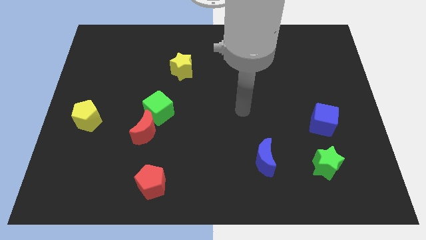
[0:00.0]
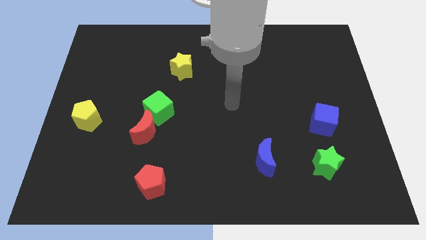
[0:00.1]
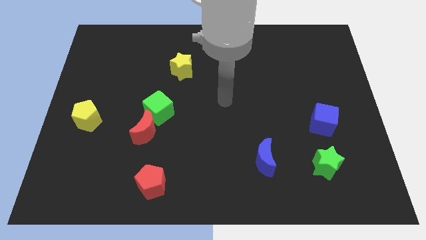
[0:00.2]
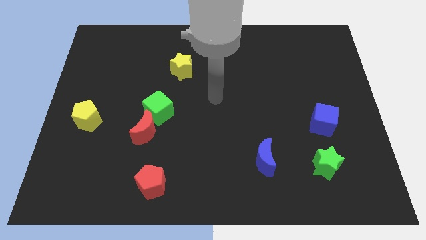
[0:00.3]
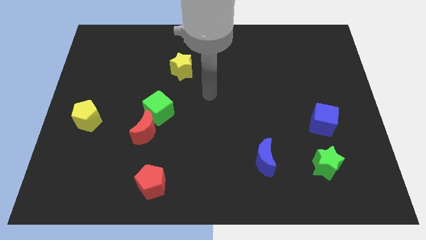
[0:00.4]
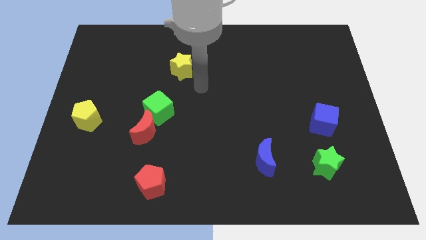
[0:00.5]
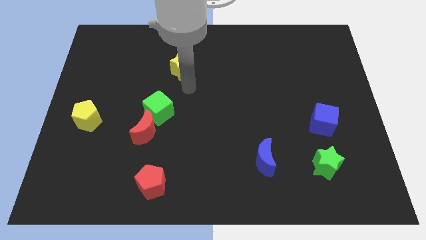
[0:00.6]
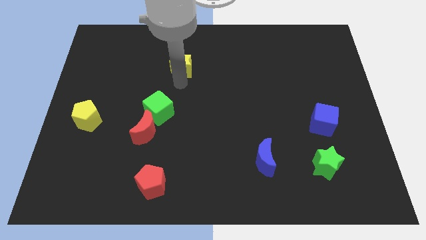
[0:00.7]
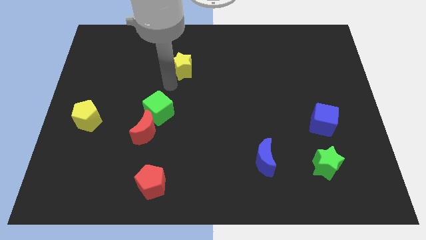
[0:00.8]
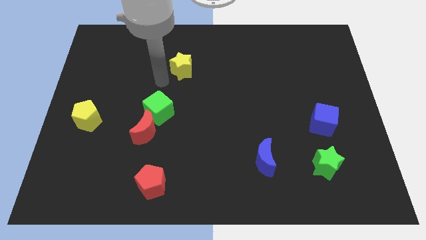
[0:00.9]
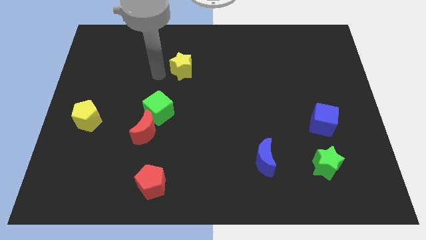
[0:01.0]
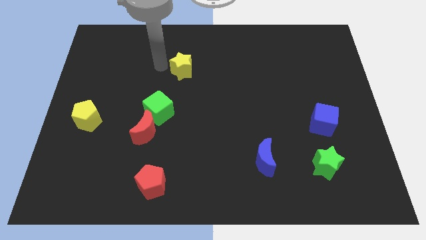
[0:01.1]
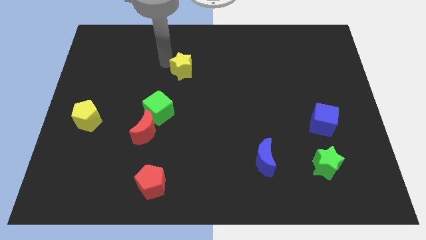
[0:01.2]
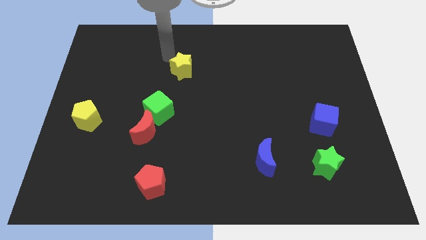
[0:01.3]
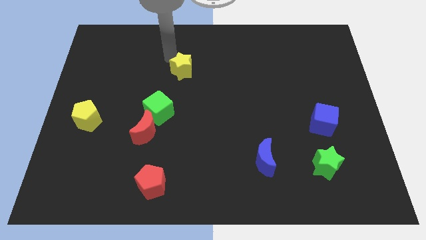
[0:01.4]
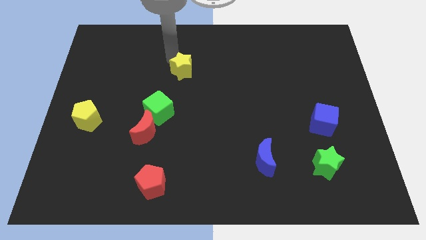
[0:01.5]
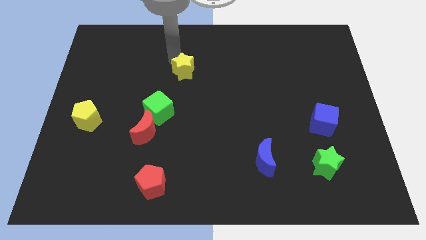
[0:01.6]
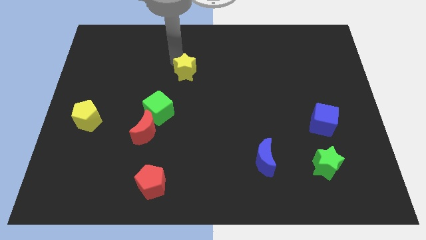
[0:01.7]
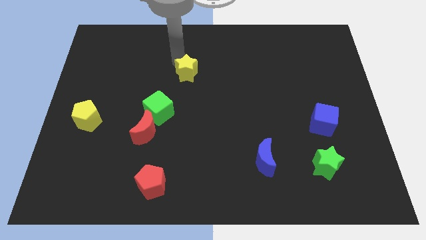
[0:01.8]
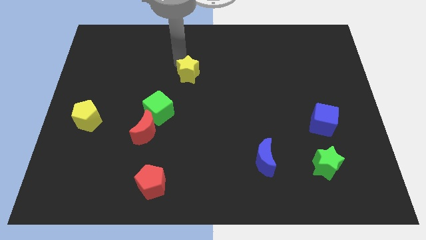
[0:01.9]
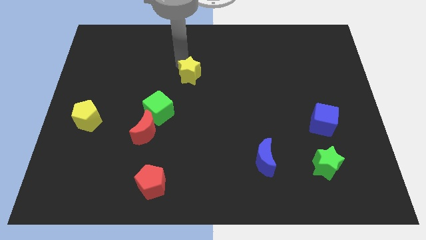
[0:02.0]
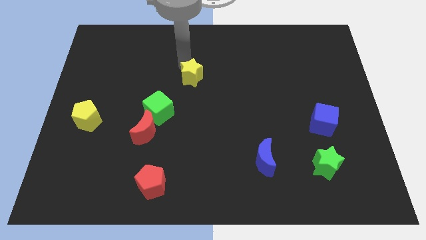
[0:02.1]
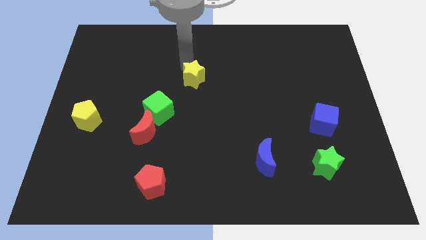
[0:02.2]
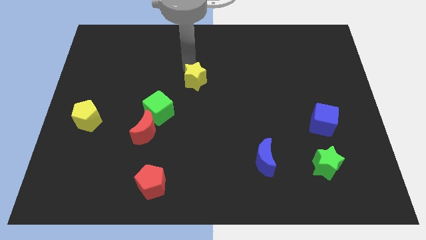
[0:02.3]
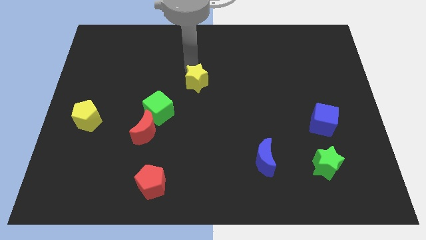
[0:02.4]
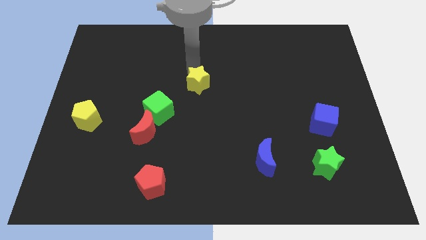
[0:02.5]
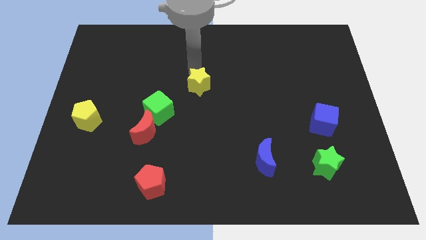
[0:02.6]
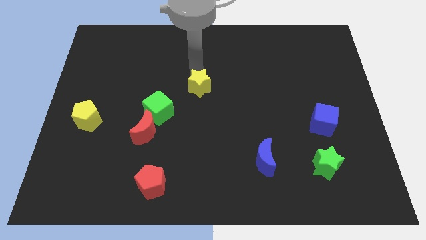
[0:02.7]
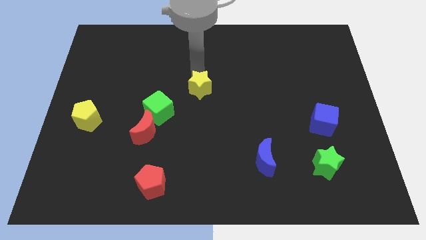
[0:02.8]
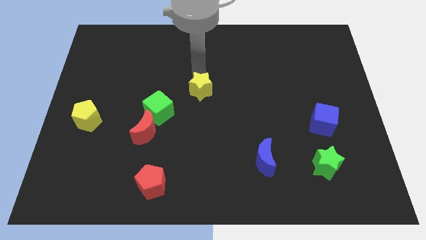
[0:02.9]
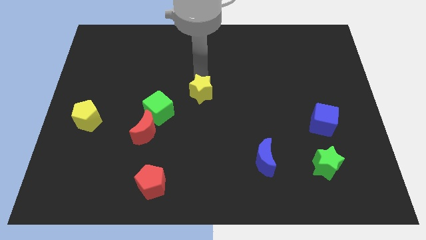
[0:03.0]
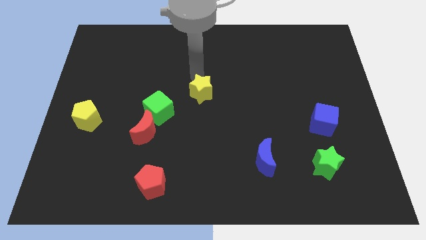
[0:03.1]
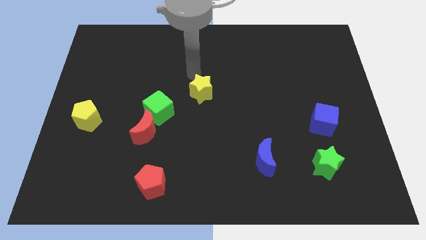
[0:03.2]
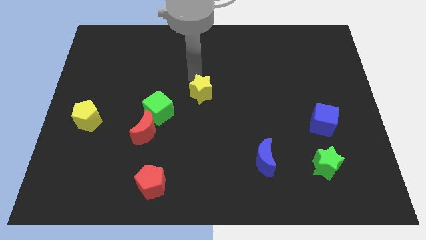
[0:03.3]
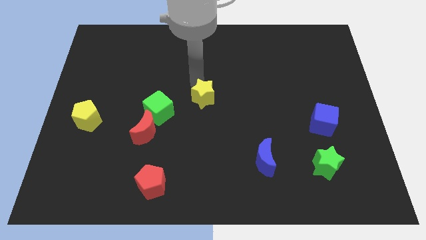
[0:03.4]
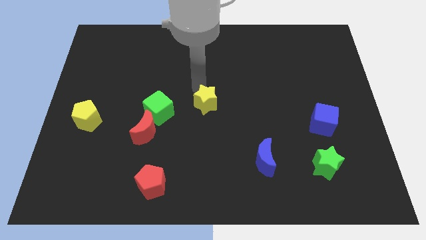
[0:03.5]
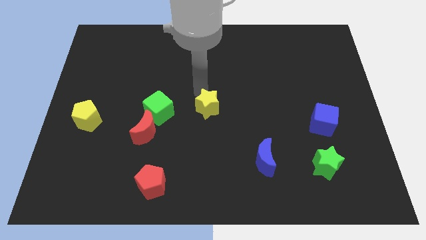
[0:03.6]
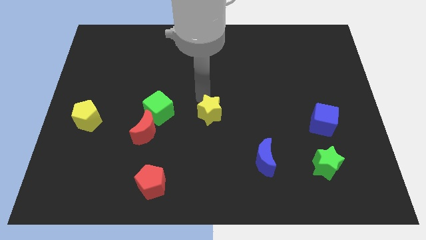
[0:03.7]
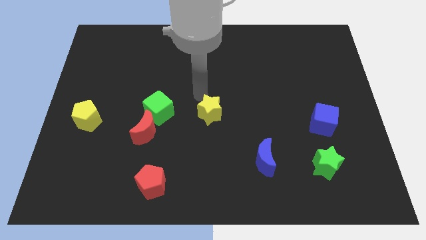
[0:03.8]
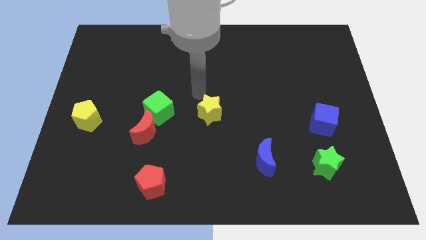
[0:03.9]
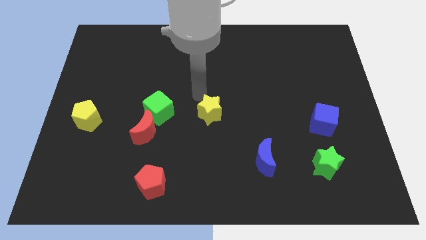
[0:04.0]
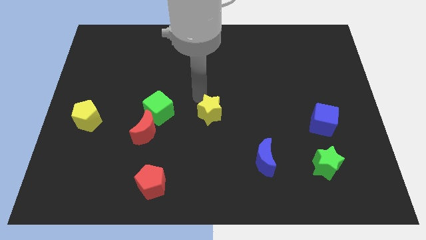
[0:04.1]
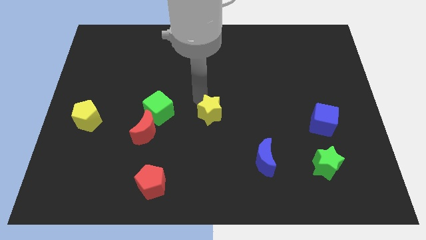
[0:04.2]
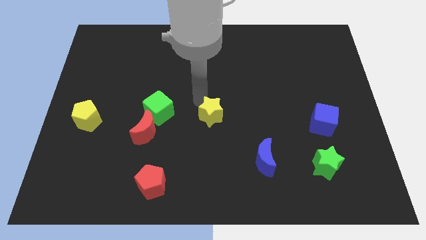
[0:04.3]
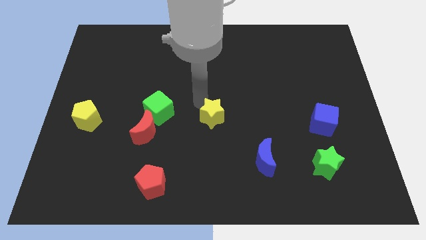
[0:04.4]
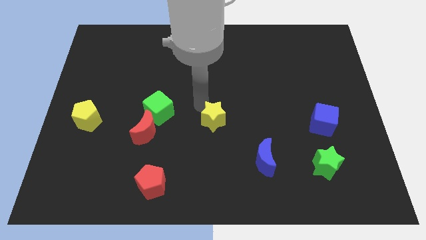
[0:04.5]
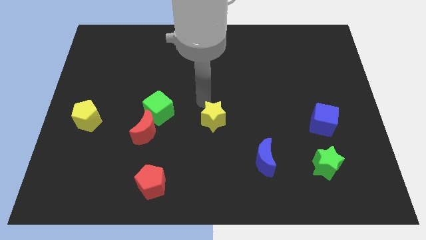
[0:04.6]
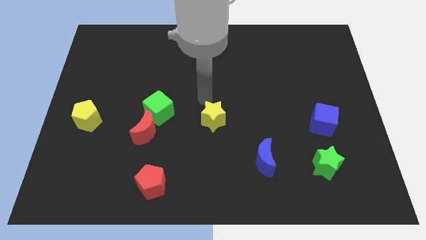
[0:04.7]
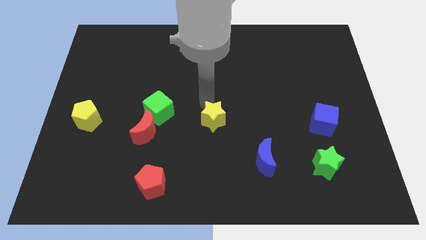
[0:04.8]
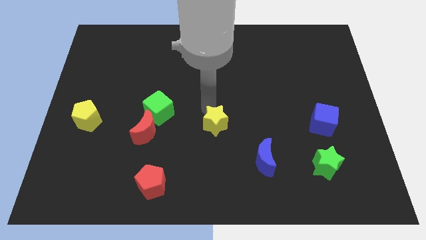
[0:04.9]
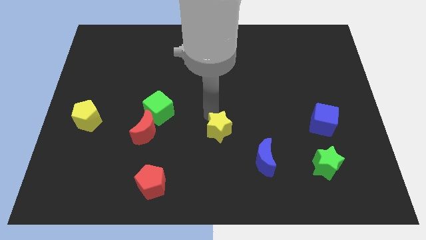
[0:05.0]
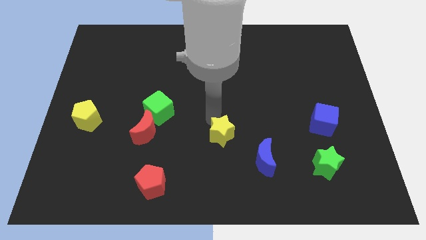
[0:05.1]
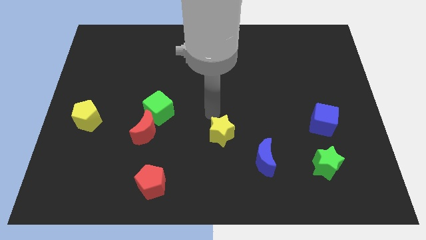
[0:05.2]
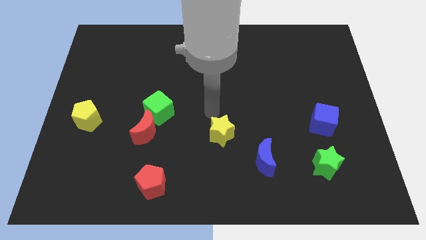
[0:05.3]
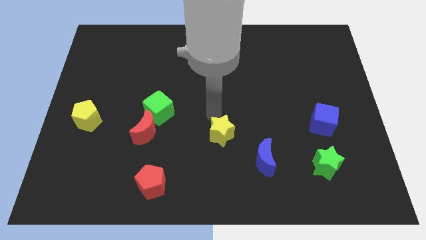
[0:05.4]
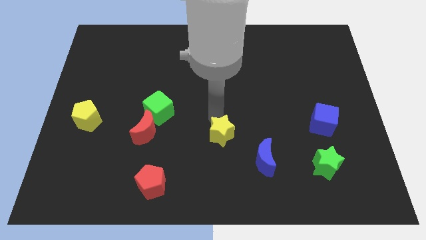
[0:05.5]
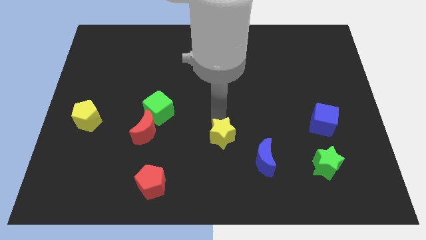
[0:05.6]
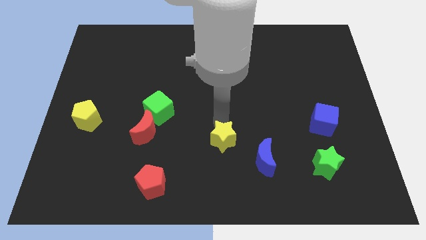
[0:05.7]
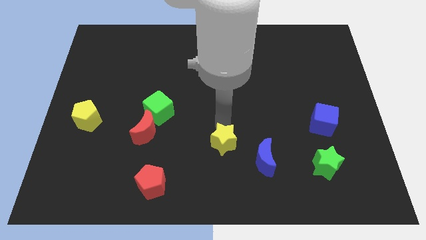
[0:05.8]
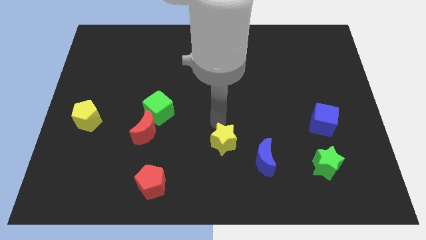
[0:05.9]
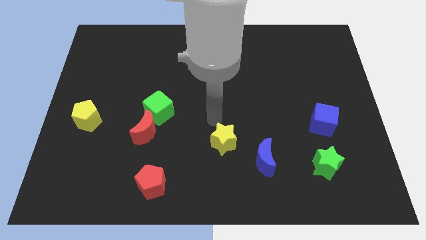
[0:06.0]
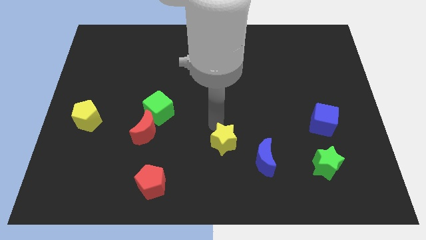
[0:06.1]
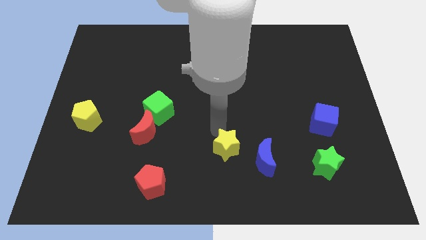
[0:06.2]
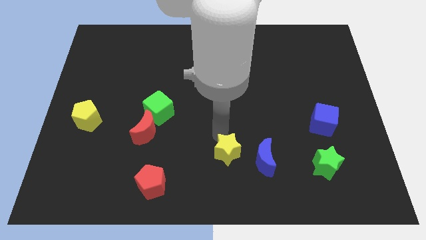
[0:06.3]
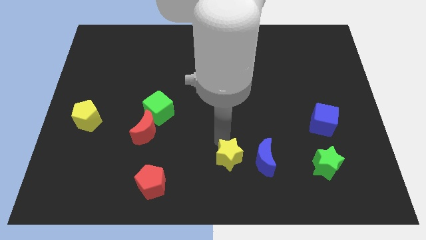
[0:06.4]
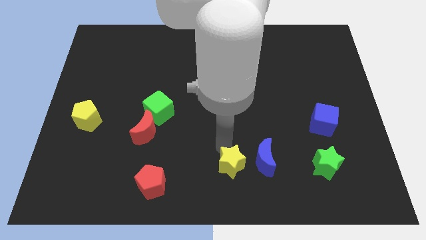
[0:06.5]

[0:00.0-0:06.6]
push the yellow star to the bottom left of the blue moon
